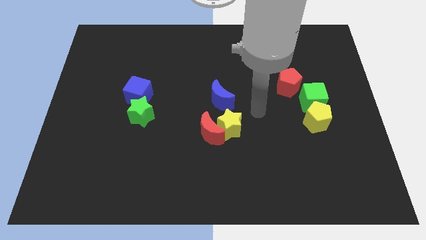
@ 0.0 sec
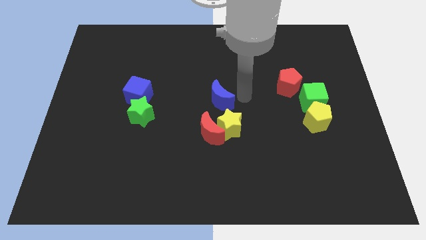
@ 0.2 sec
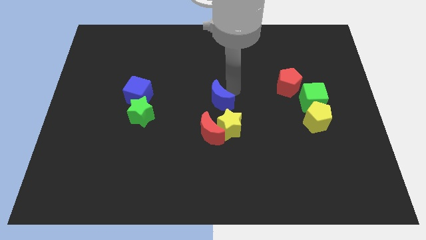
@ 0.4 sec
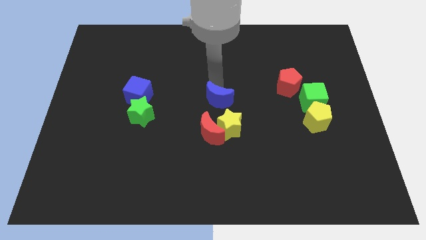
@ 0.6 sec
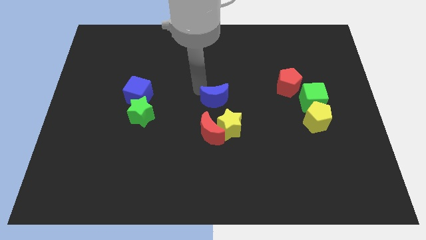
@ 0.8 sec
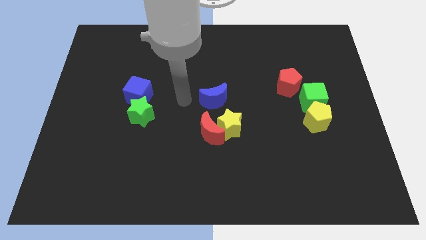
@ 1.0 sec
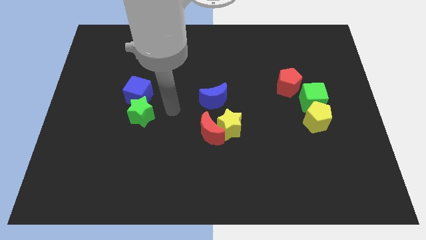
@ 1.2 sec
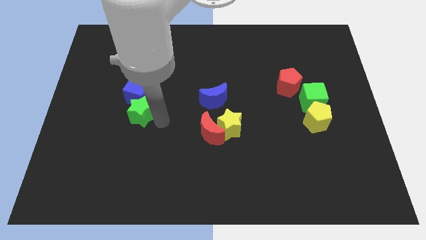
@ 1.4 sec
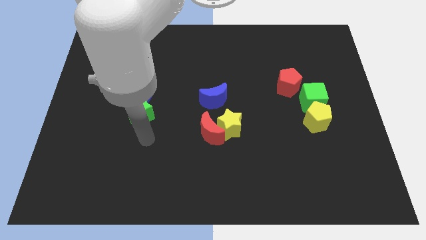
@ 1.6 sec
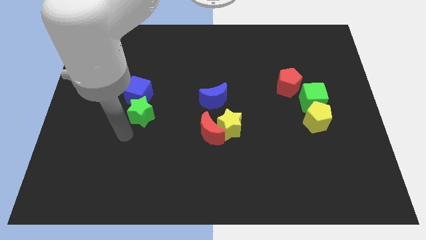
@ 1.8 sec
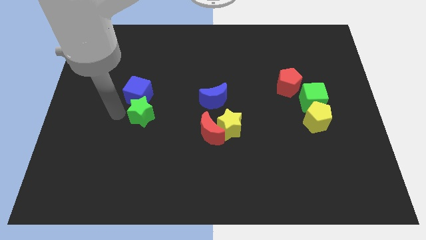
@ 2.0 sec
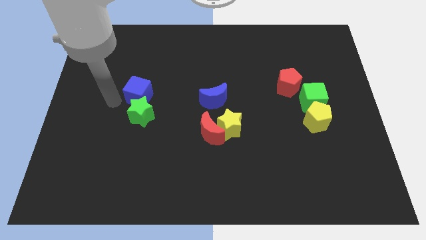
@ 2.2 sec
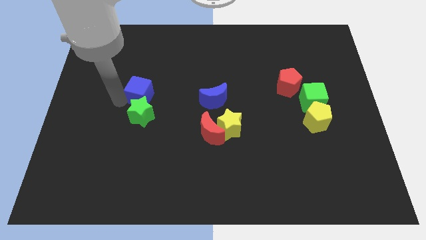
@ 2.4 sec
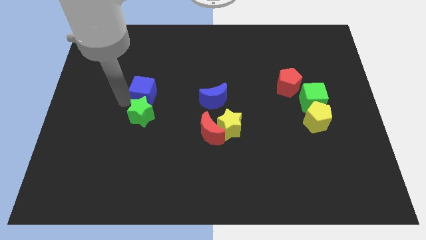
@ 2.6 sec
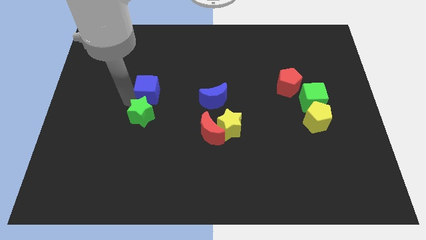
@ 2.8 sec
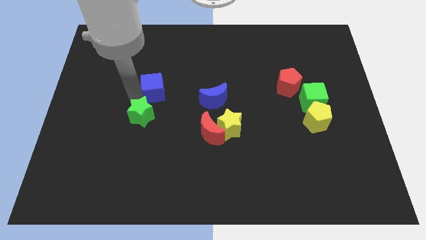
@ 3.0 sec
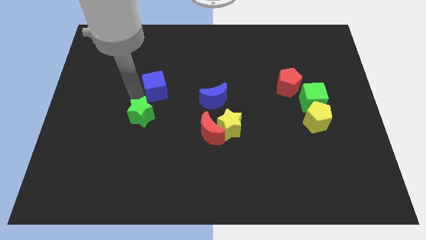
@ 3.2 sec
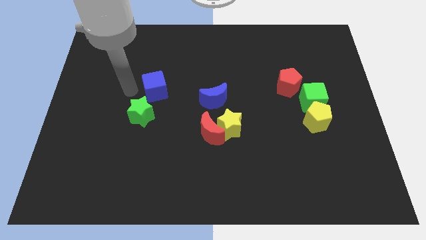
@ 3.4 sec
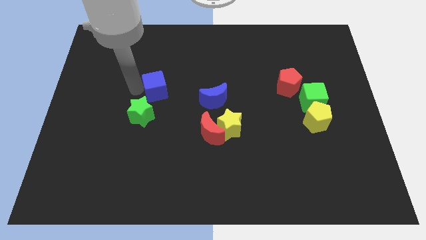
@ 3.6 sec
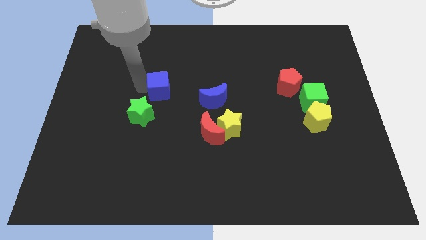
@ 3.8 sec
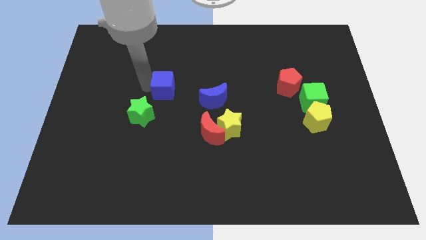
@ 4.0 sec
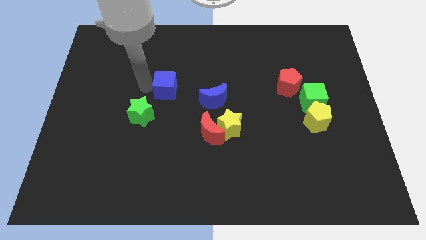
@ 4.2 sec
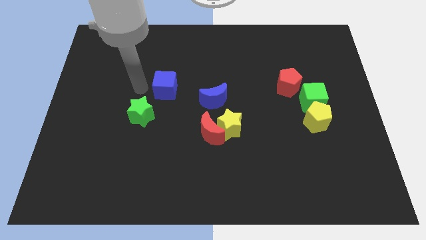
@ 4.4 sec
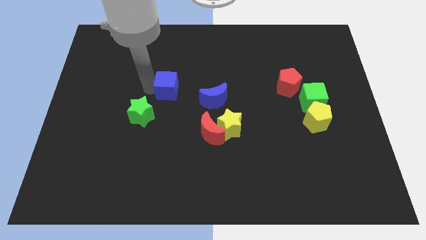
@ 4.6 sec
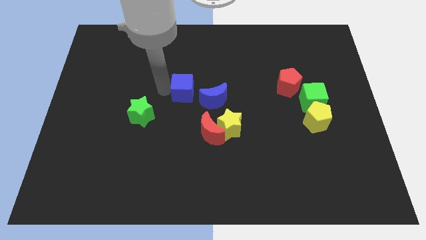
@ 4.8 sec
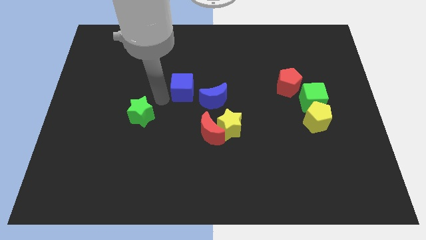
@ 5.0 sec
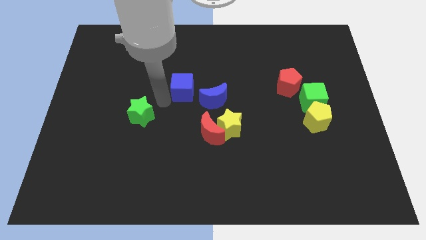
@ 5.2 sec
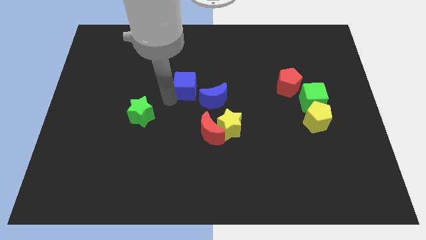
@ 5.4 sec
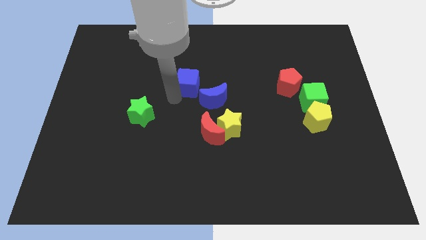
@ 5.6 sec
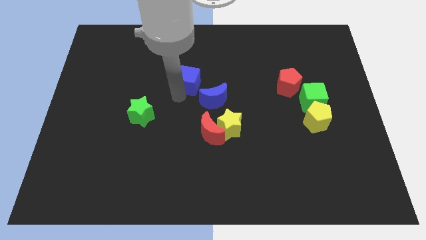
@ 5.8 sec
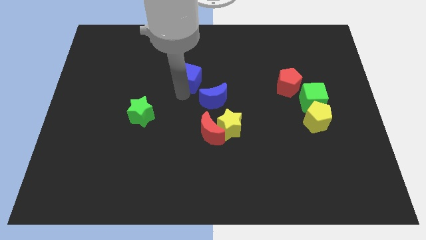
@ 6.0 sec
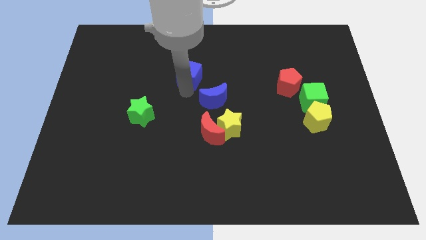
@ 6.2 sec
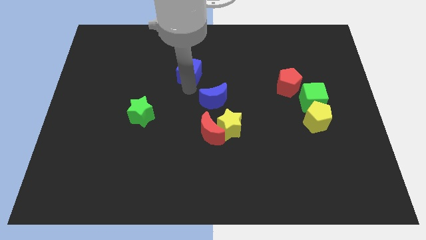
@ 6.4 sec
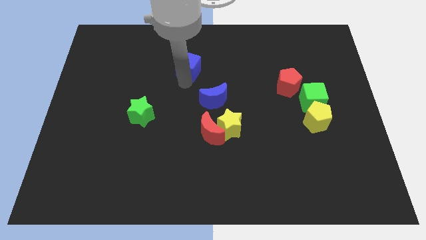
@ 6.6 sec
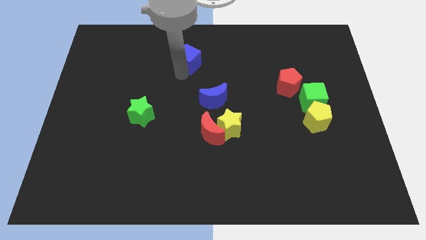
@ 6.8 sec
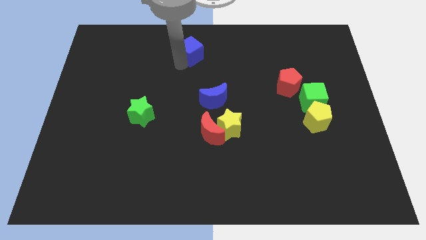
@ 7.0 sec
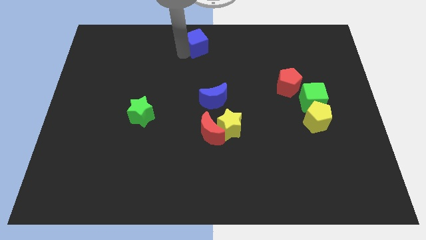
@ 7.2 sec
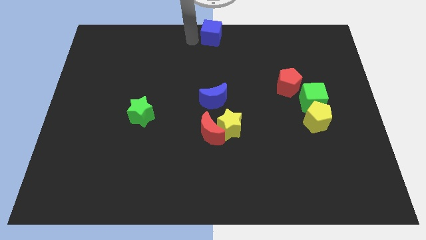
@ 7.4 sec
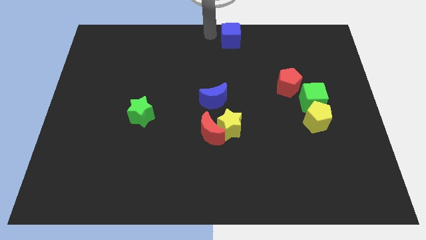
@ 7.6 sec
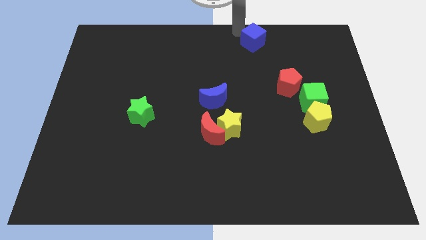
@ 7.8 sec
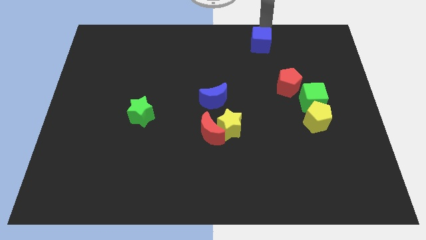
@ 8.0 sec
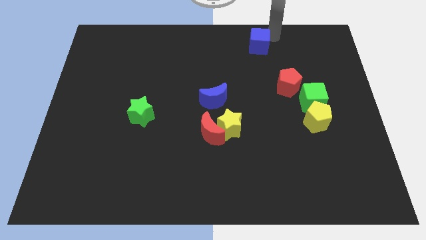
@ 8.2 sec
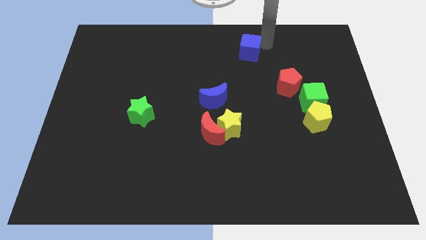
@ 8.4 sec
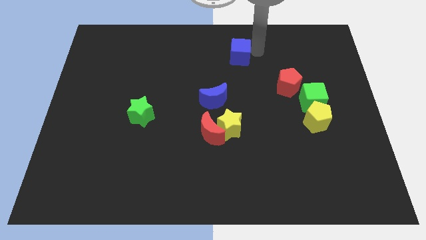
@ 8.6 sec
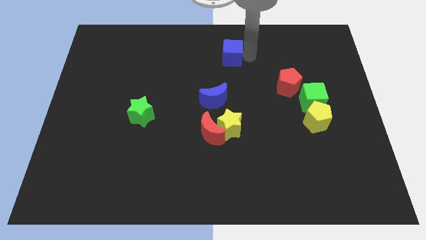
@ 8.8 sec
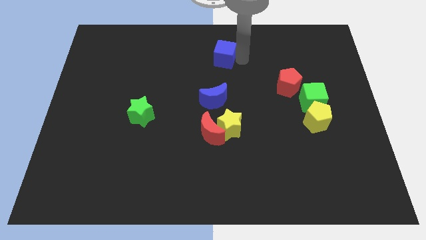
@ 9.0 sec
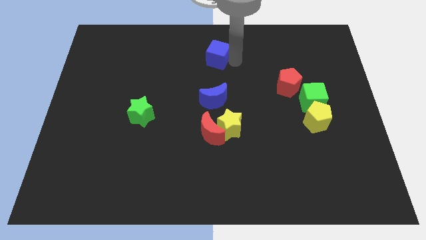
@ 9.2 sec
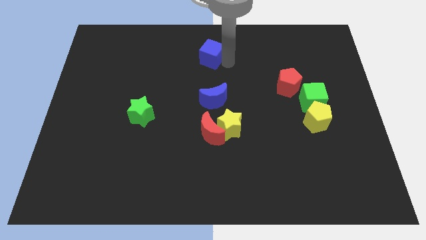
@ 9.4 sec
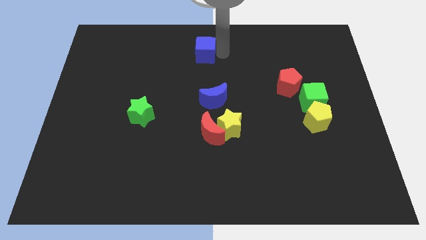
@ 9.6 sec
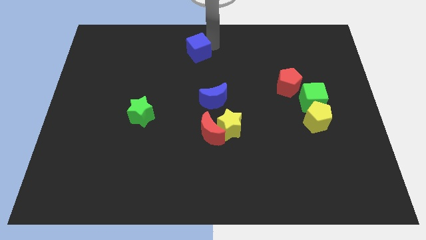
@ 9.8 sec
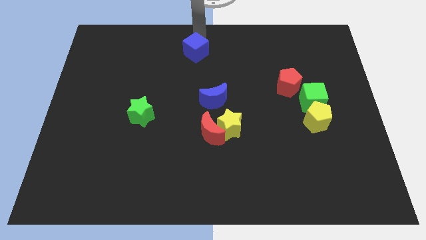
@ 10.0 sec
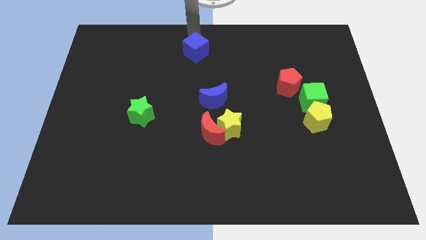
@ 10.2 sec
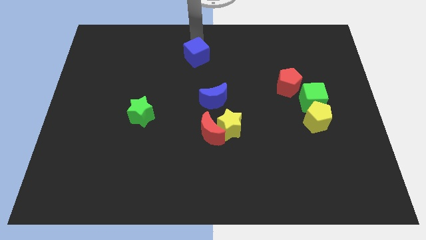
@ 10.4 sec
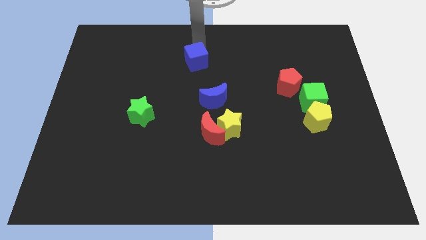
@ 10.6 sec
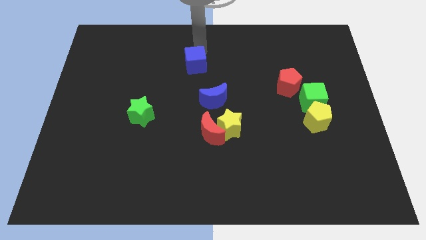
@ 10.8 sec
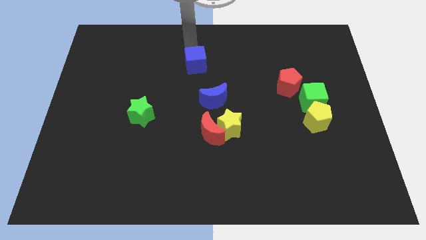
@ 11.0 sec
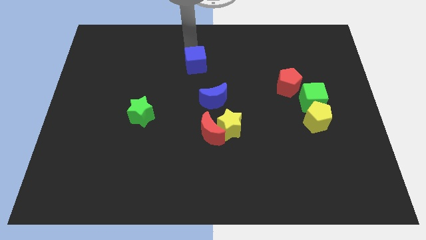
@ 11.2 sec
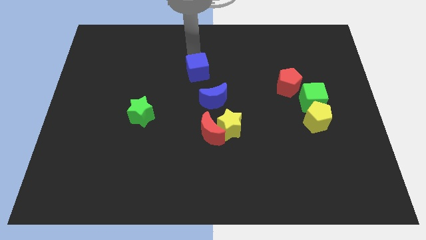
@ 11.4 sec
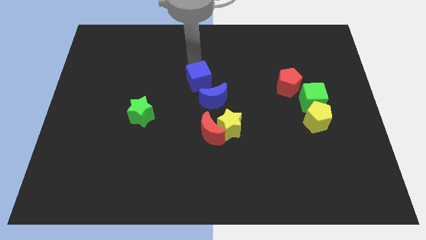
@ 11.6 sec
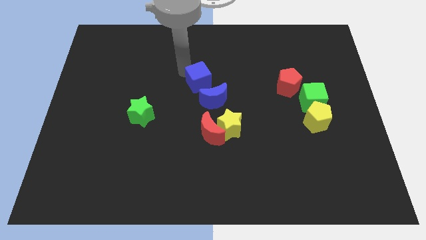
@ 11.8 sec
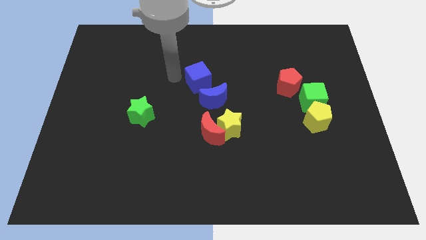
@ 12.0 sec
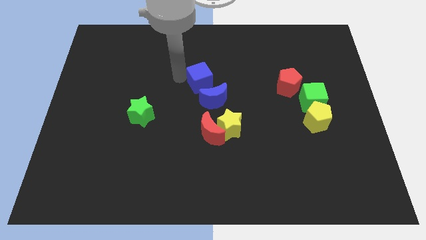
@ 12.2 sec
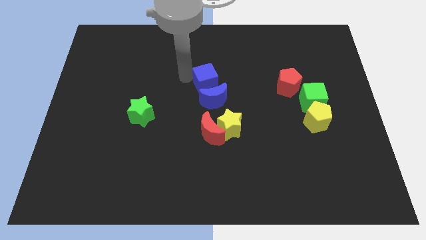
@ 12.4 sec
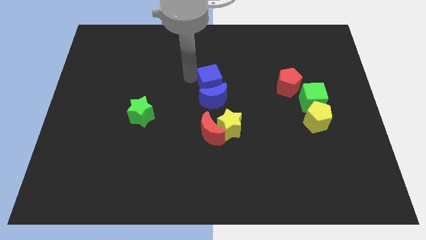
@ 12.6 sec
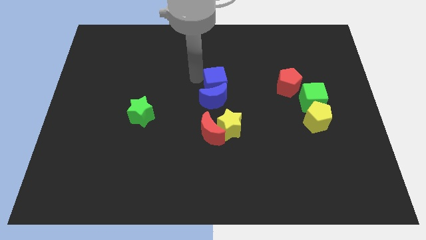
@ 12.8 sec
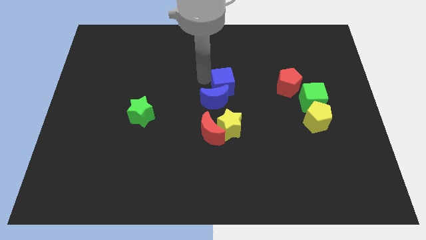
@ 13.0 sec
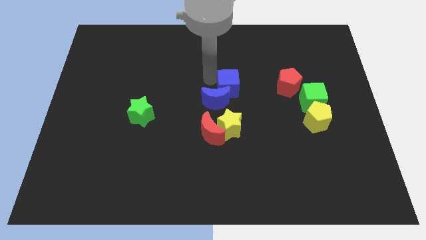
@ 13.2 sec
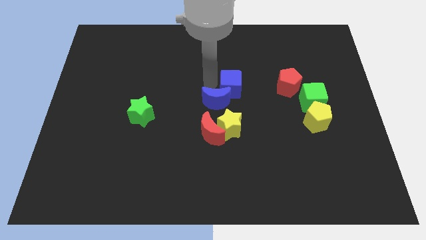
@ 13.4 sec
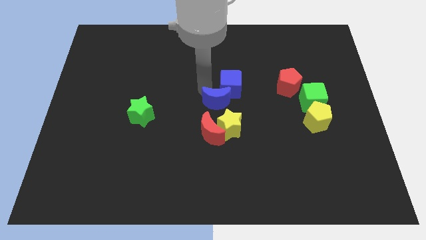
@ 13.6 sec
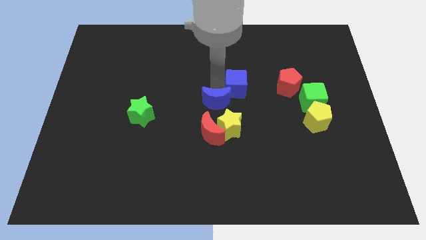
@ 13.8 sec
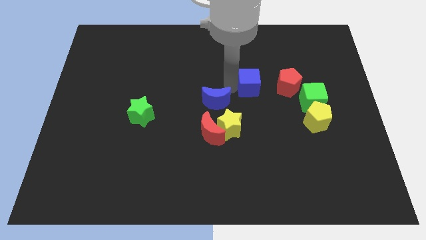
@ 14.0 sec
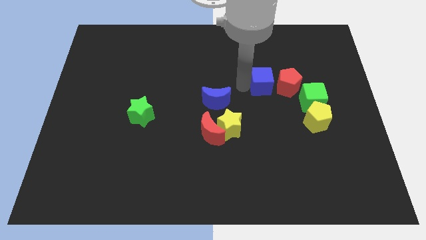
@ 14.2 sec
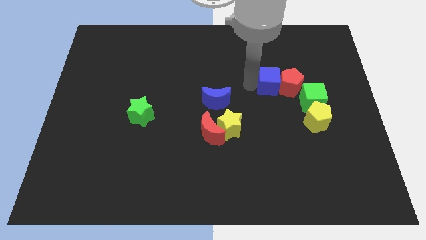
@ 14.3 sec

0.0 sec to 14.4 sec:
slide the blue cube close to the red pentagon
